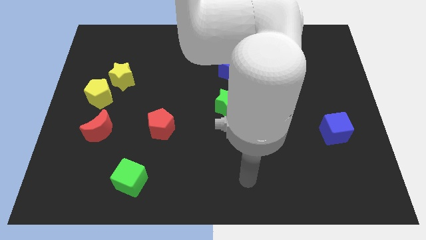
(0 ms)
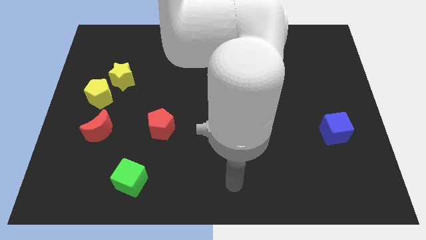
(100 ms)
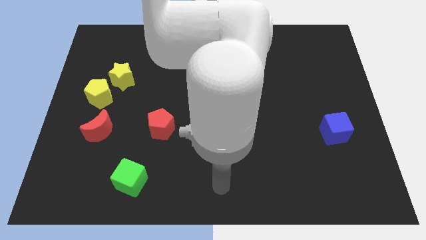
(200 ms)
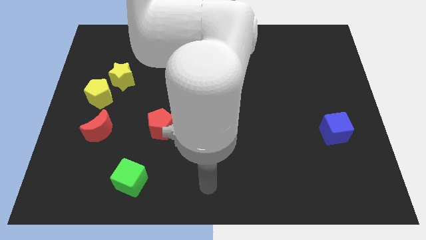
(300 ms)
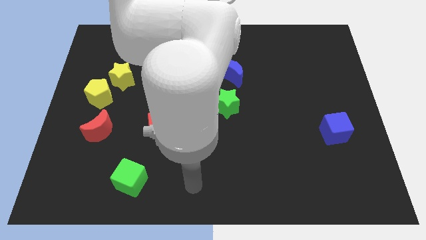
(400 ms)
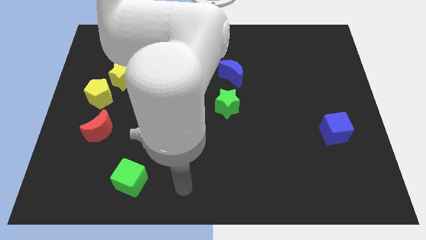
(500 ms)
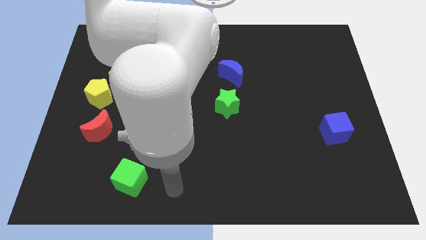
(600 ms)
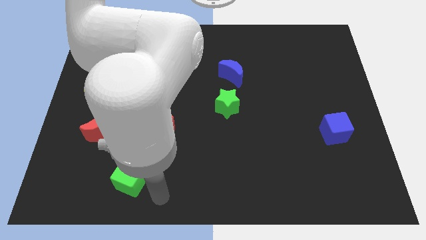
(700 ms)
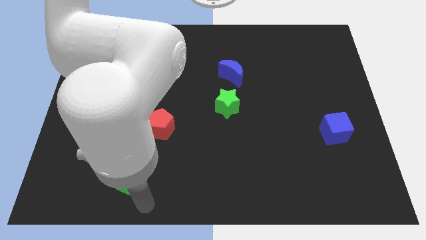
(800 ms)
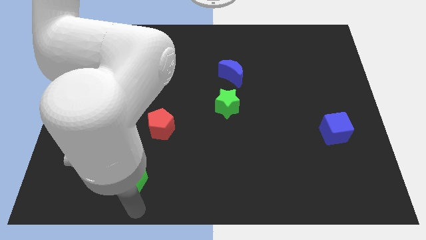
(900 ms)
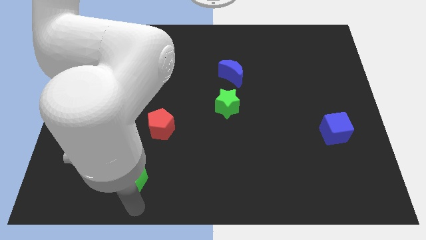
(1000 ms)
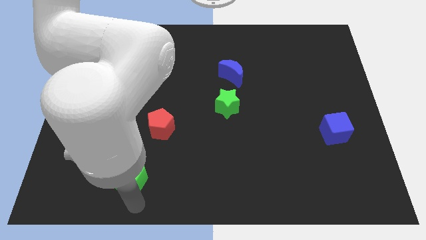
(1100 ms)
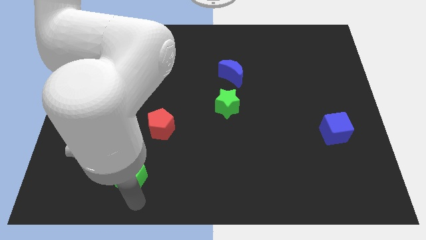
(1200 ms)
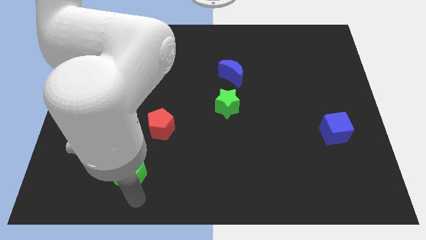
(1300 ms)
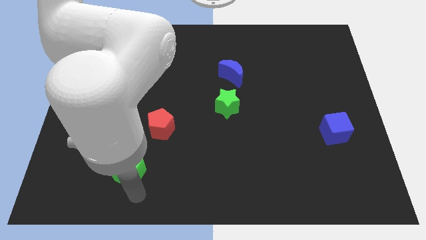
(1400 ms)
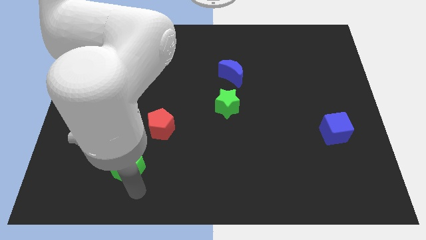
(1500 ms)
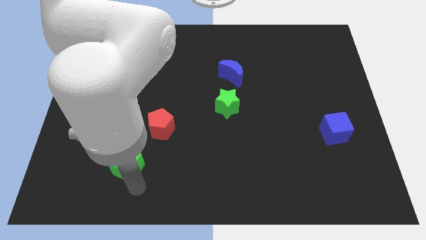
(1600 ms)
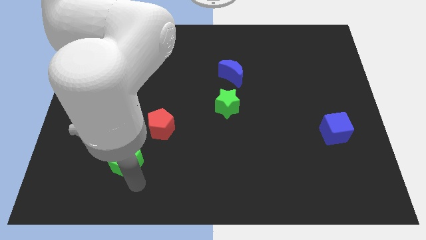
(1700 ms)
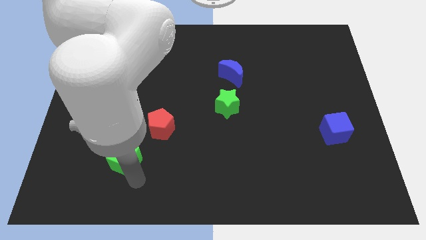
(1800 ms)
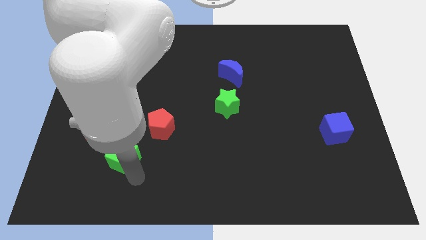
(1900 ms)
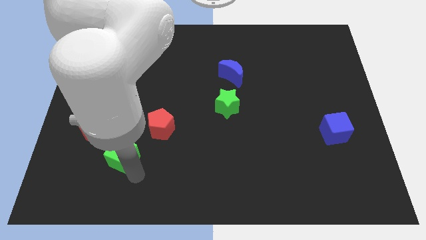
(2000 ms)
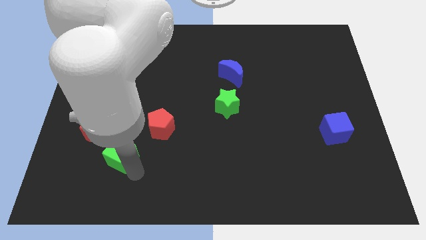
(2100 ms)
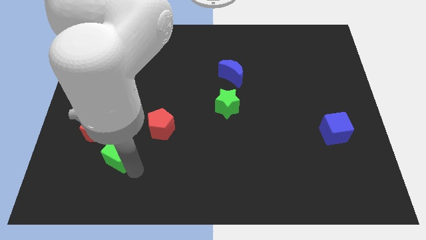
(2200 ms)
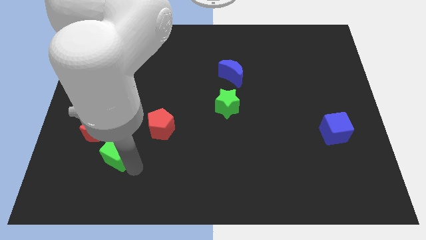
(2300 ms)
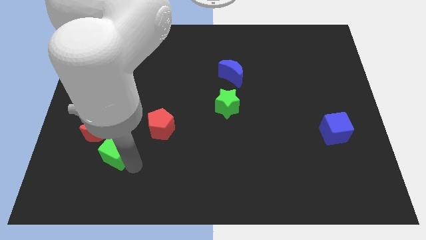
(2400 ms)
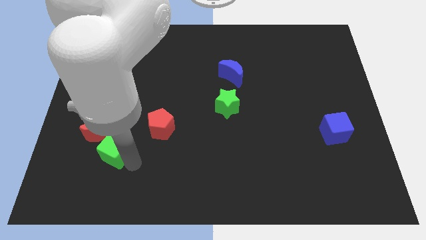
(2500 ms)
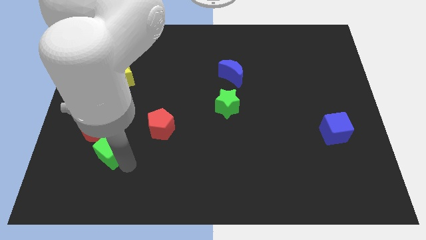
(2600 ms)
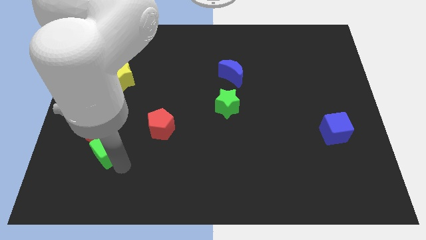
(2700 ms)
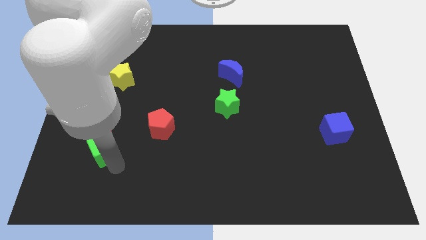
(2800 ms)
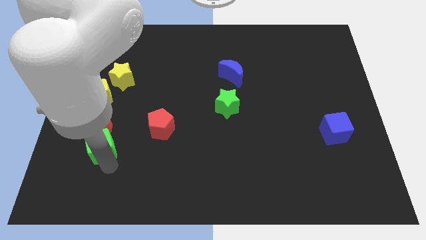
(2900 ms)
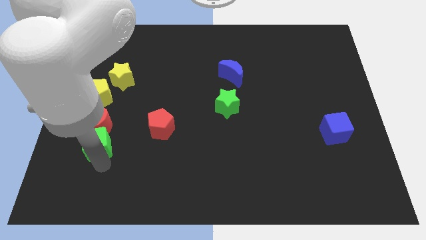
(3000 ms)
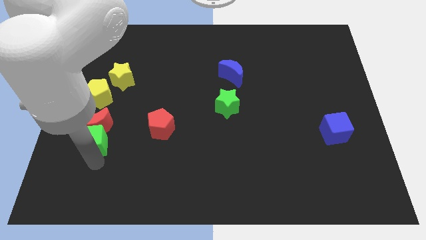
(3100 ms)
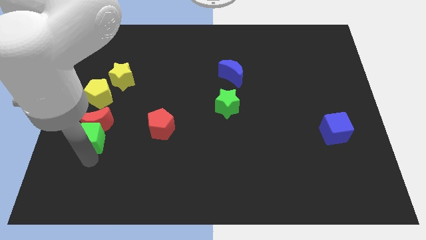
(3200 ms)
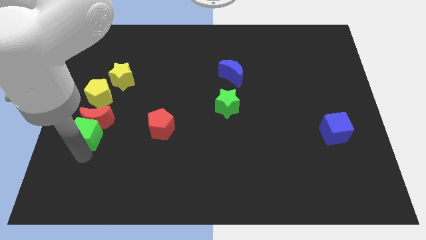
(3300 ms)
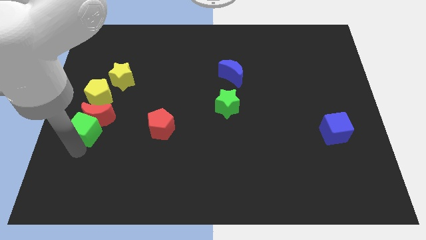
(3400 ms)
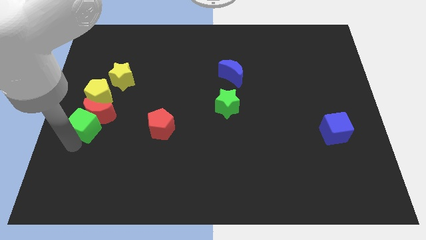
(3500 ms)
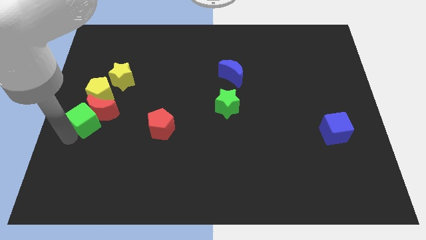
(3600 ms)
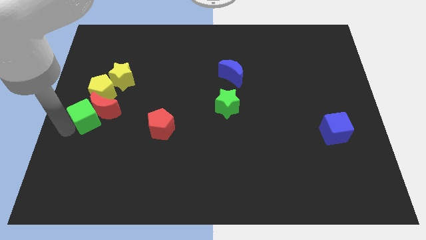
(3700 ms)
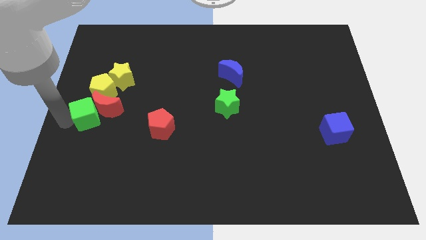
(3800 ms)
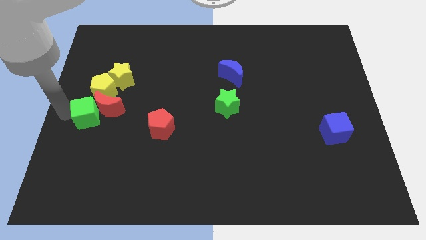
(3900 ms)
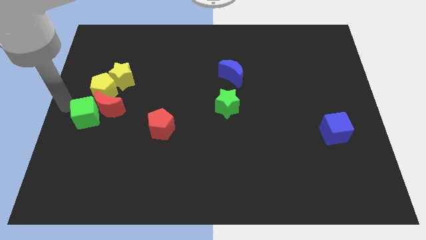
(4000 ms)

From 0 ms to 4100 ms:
push the green cube up a little bit

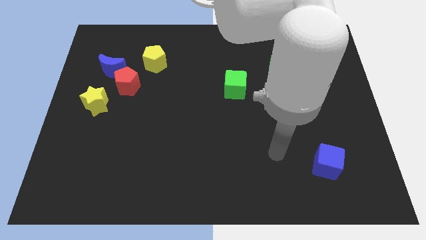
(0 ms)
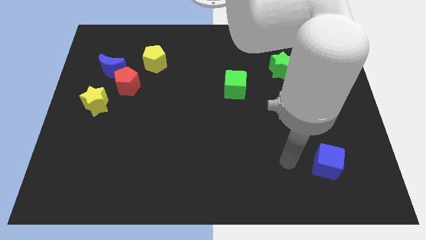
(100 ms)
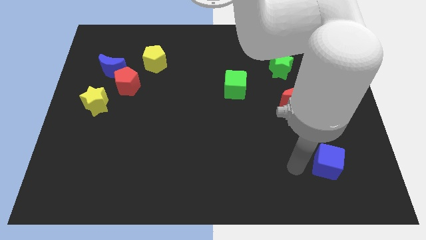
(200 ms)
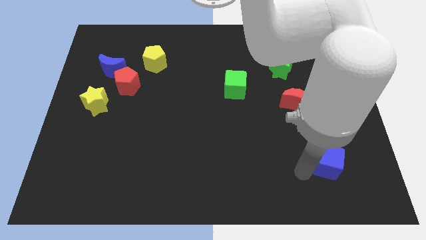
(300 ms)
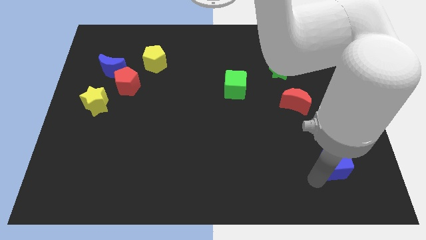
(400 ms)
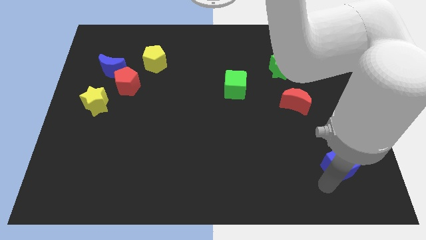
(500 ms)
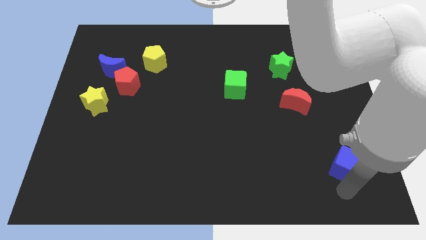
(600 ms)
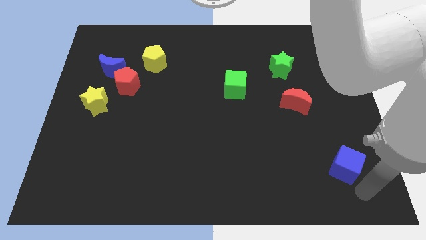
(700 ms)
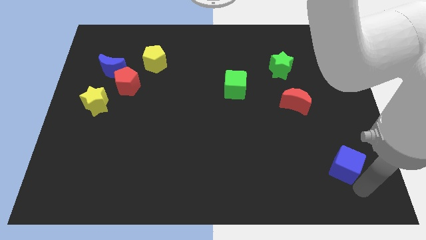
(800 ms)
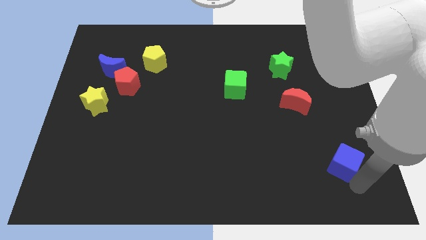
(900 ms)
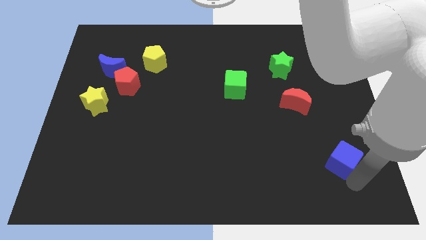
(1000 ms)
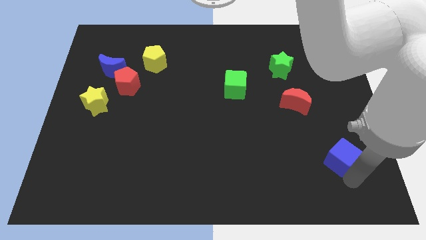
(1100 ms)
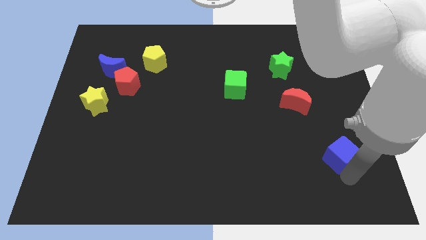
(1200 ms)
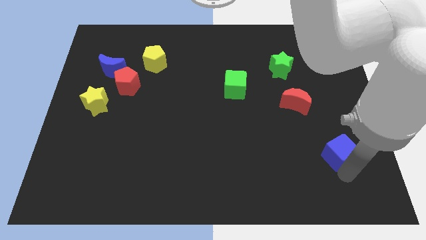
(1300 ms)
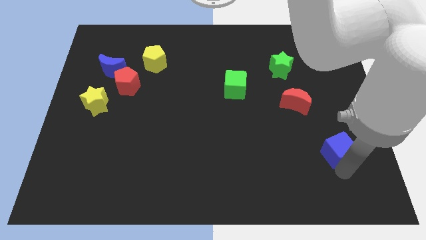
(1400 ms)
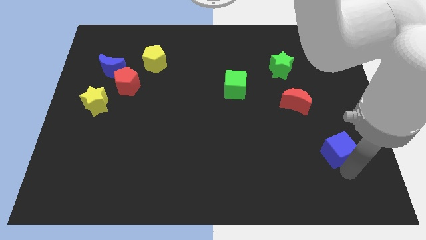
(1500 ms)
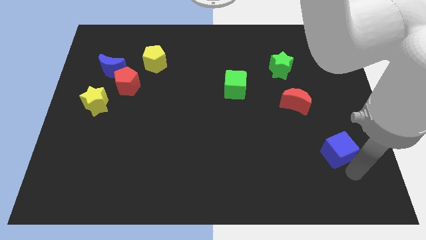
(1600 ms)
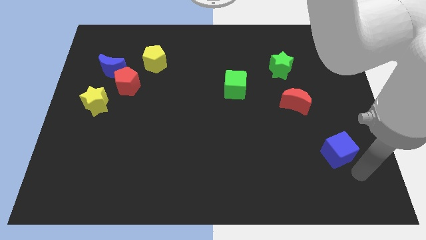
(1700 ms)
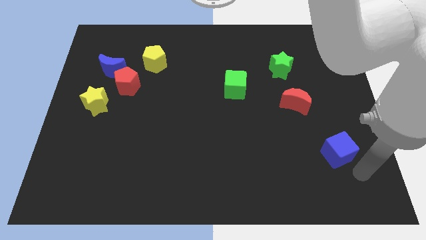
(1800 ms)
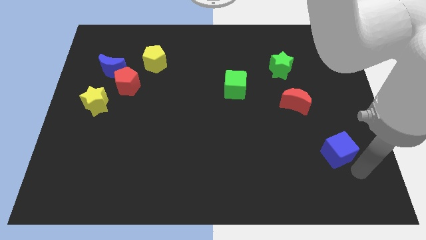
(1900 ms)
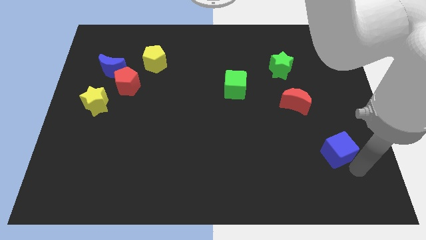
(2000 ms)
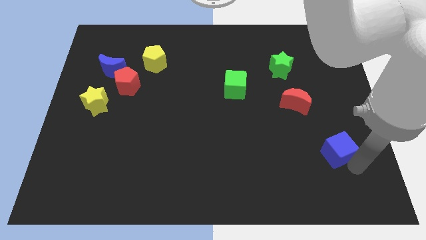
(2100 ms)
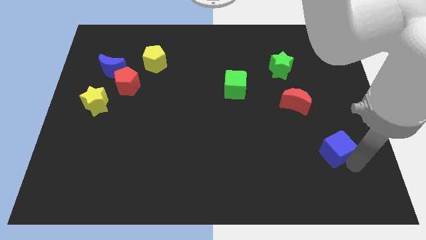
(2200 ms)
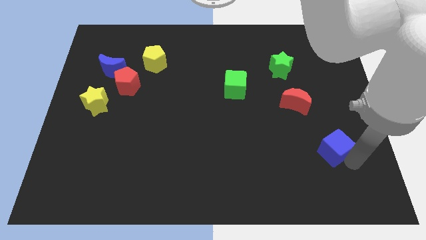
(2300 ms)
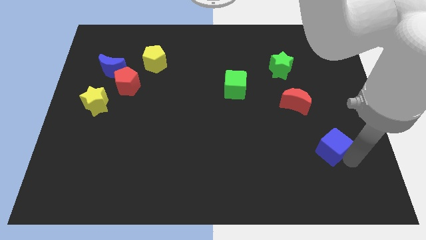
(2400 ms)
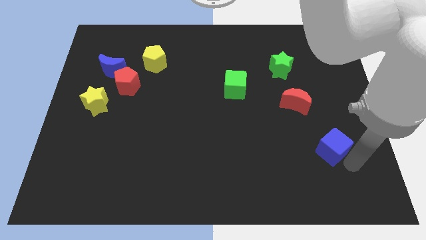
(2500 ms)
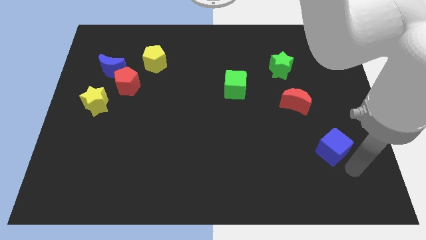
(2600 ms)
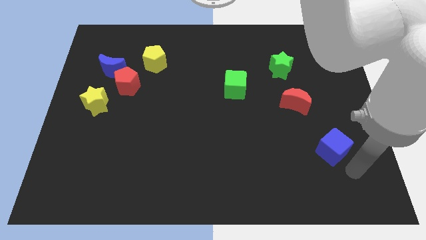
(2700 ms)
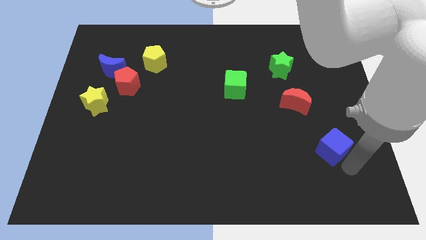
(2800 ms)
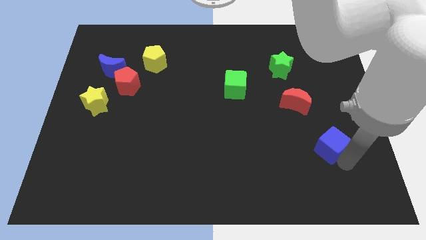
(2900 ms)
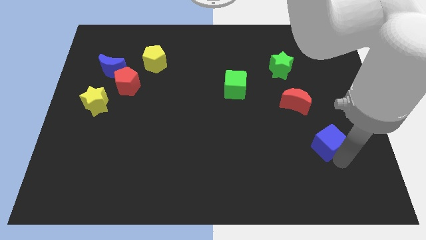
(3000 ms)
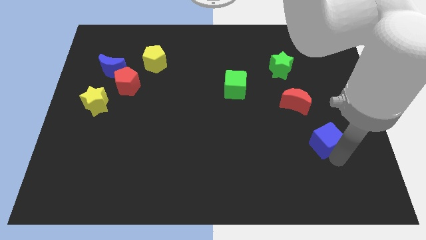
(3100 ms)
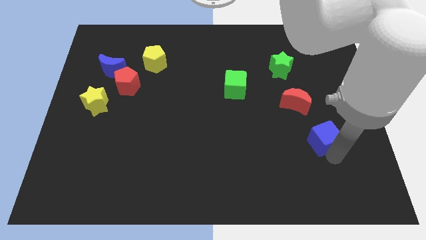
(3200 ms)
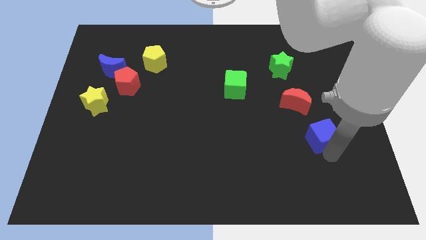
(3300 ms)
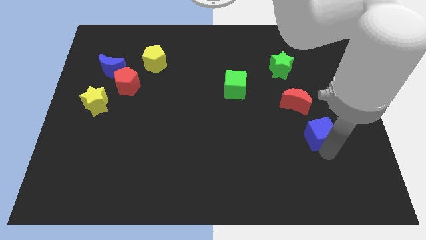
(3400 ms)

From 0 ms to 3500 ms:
push the blue cube slightly up

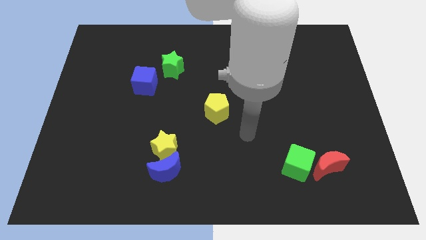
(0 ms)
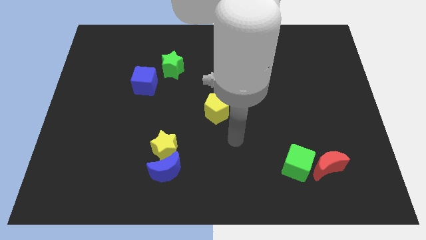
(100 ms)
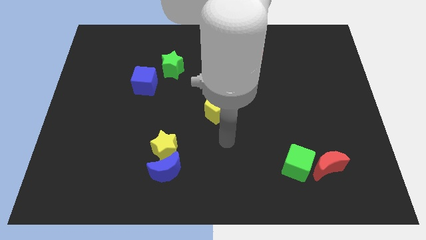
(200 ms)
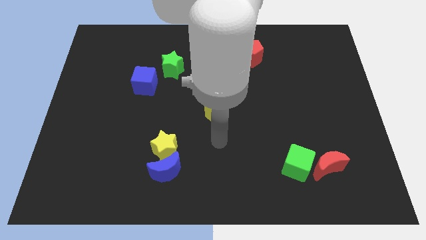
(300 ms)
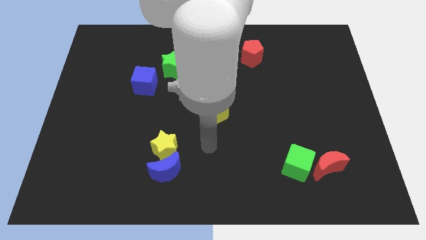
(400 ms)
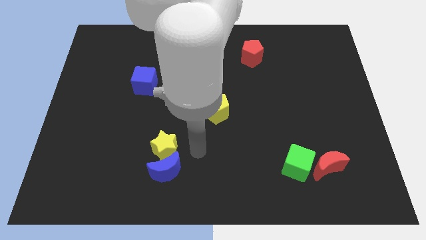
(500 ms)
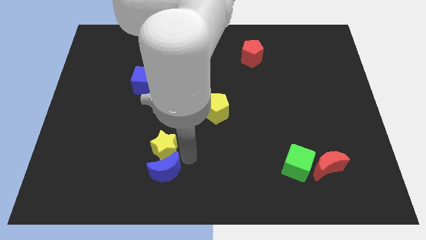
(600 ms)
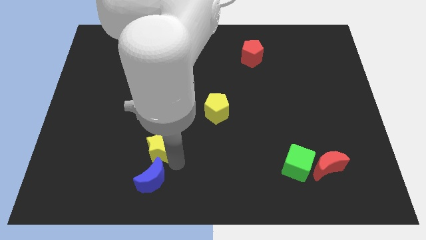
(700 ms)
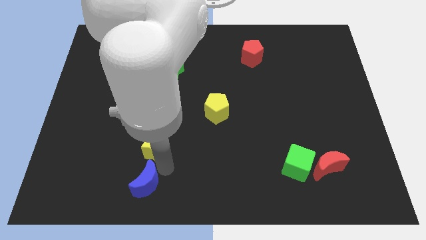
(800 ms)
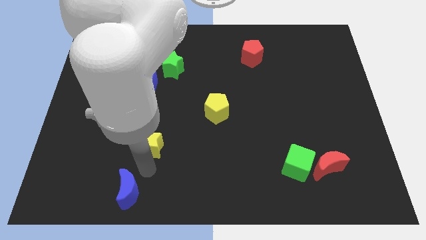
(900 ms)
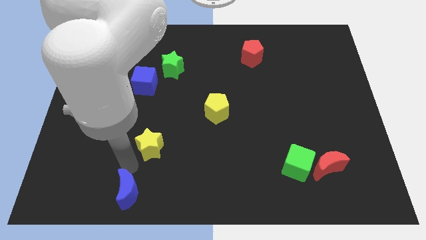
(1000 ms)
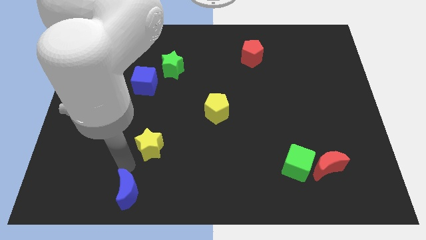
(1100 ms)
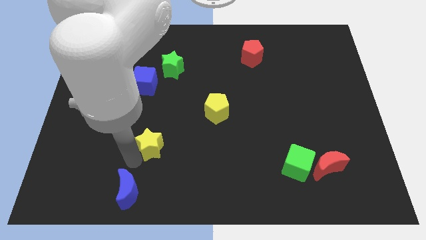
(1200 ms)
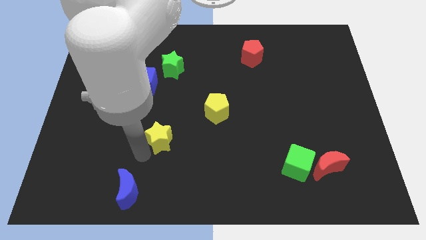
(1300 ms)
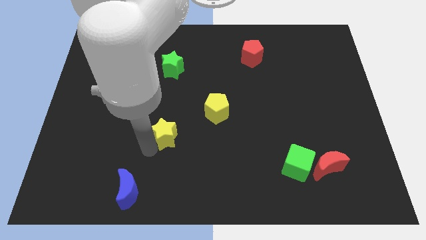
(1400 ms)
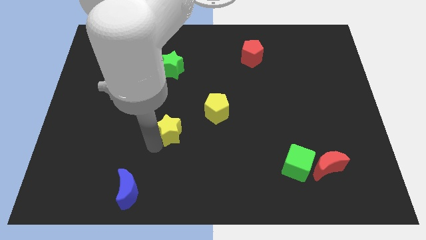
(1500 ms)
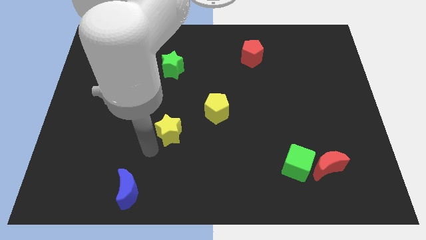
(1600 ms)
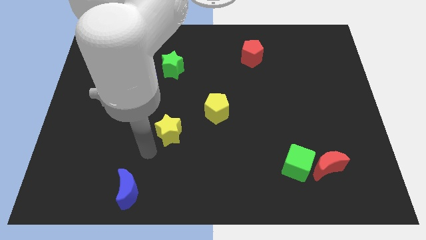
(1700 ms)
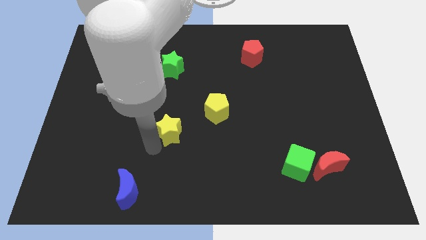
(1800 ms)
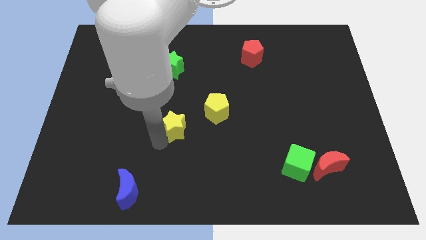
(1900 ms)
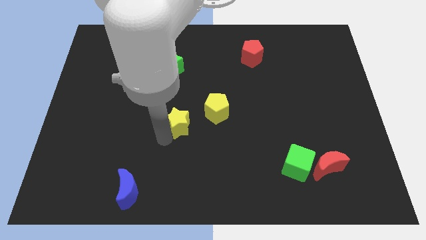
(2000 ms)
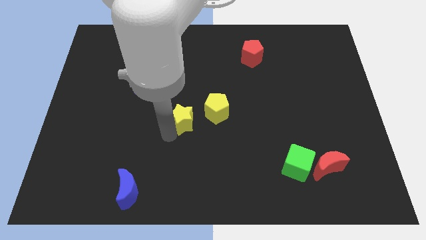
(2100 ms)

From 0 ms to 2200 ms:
push the yellow star upwards and then to the right slightly
